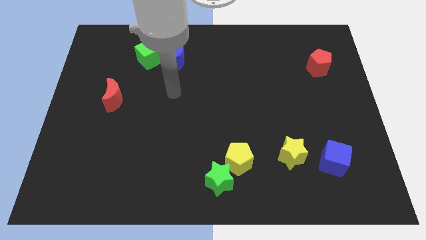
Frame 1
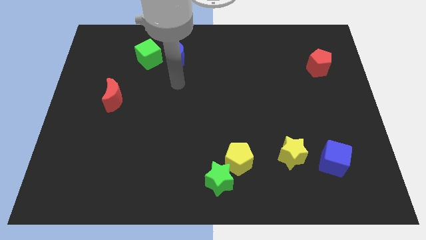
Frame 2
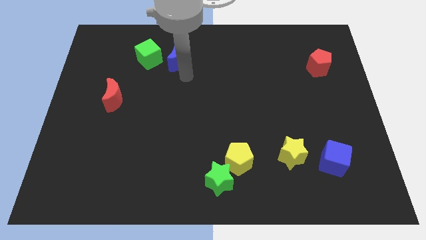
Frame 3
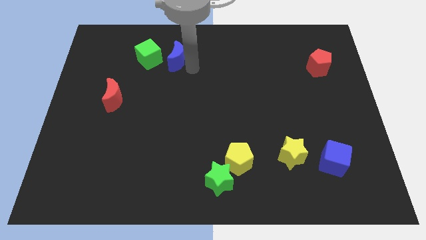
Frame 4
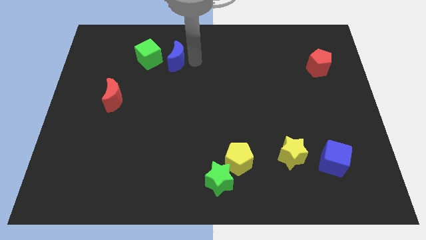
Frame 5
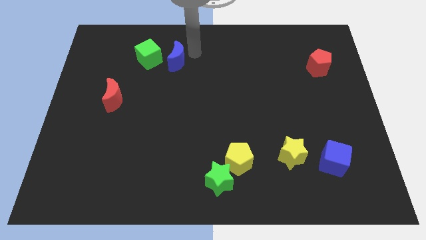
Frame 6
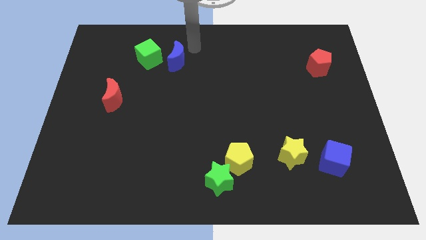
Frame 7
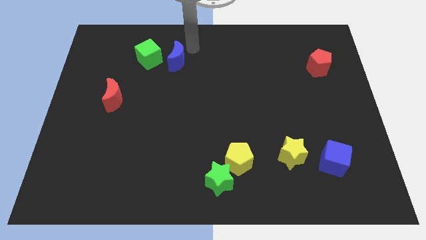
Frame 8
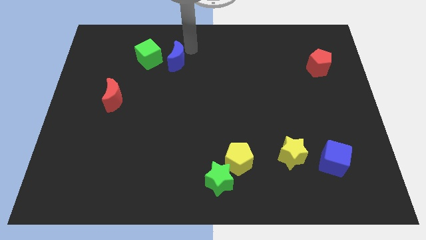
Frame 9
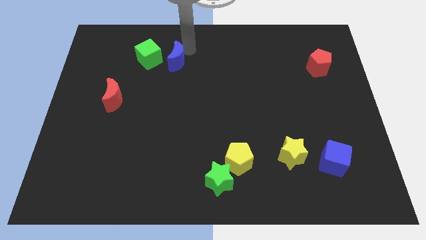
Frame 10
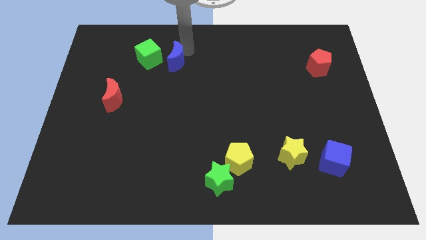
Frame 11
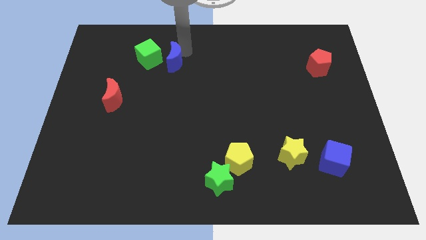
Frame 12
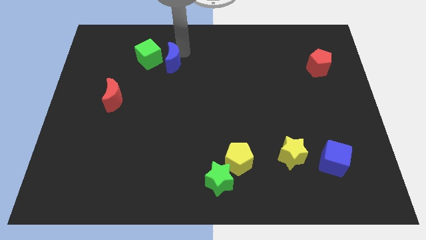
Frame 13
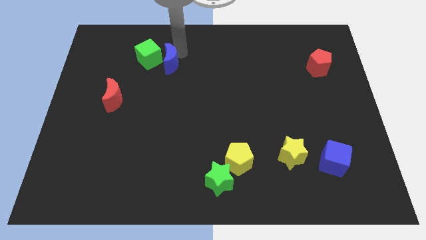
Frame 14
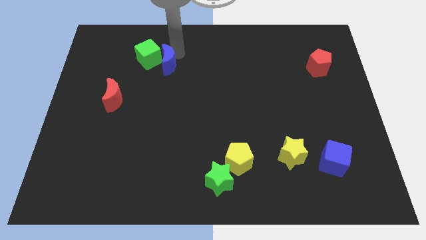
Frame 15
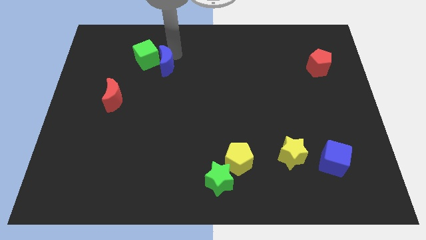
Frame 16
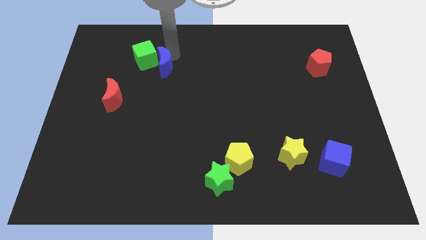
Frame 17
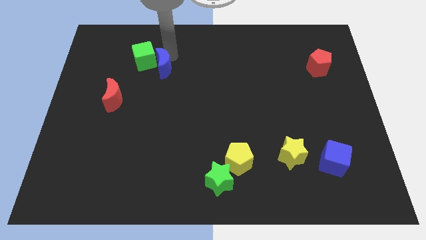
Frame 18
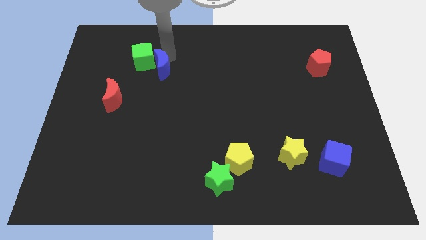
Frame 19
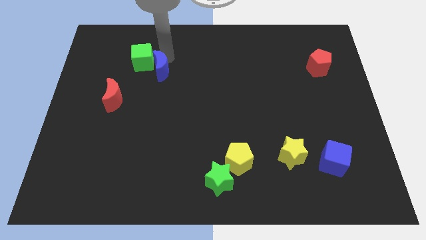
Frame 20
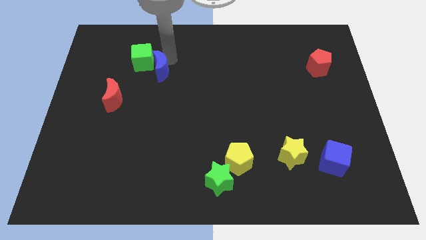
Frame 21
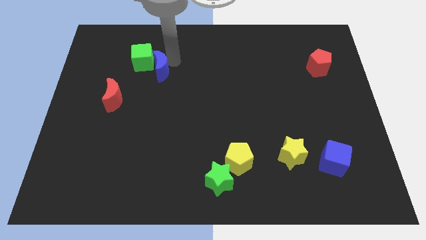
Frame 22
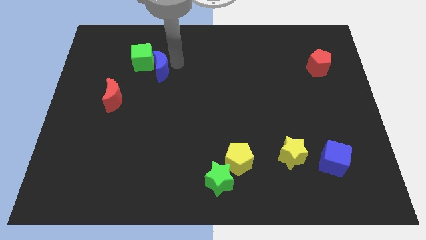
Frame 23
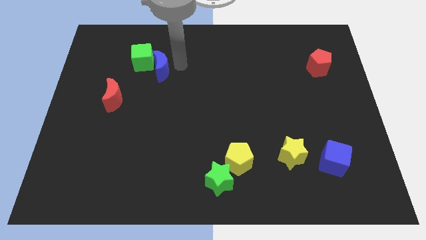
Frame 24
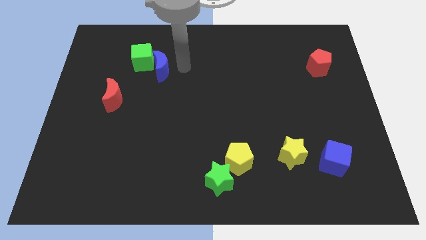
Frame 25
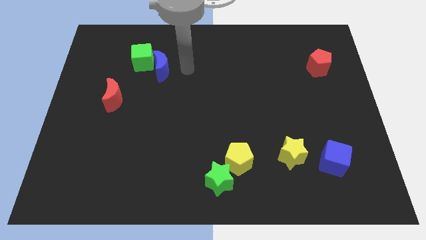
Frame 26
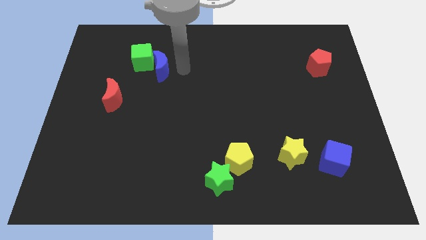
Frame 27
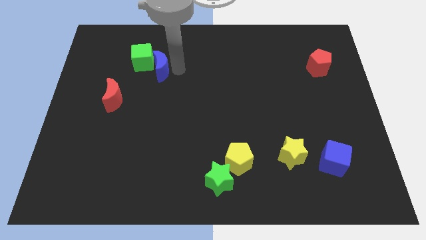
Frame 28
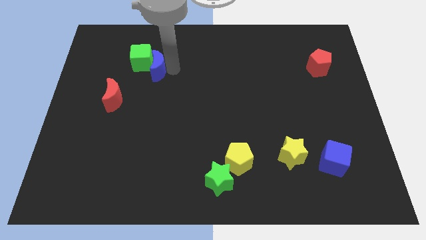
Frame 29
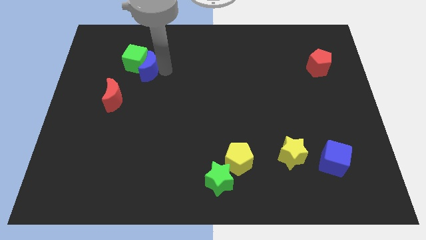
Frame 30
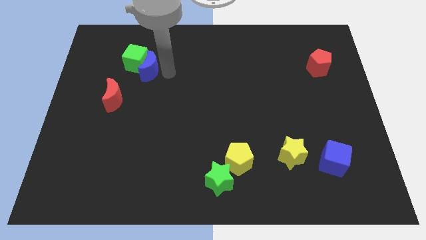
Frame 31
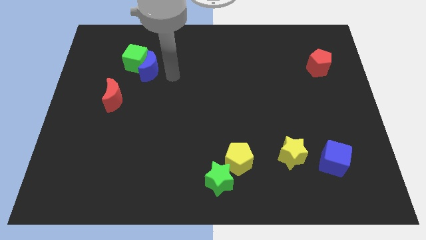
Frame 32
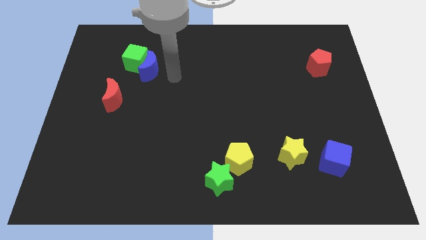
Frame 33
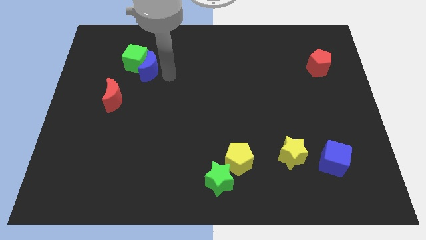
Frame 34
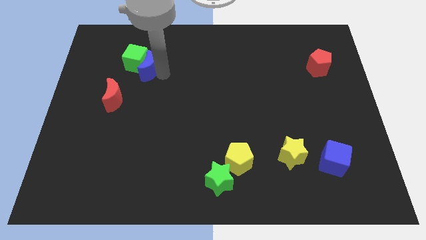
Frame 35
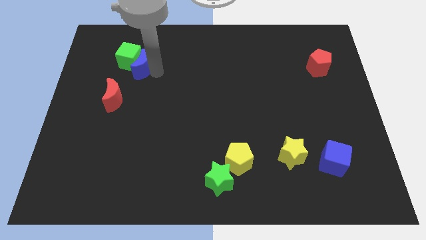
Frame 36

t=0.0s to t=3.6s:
push the blue moon left a little bit

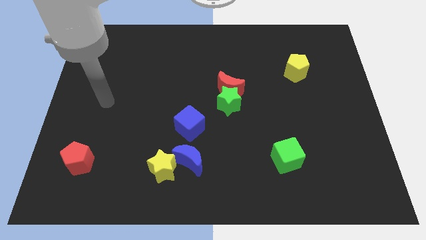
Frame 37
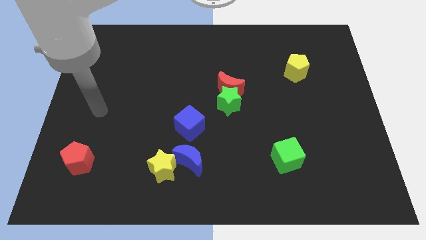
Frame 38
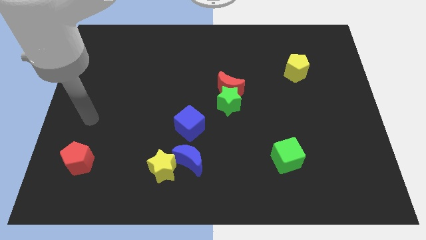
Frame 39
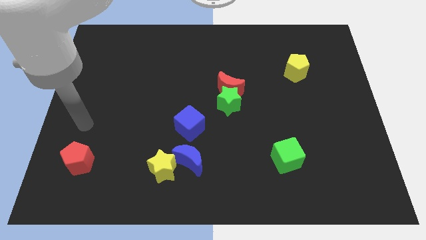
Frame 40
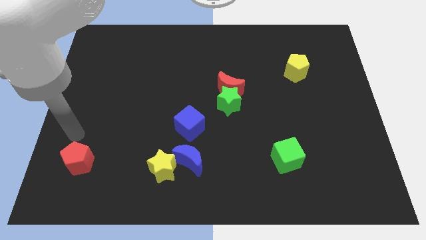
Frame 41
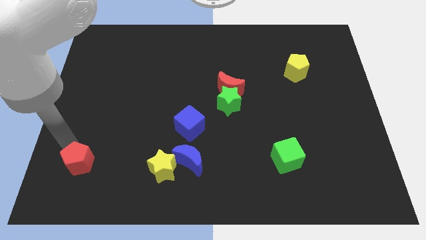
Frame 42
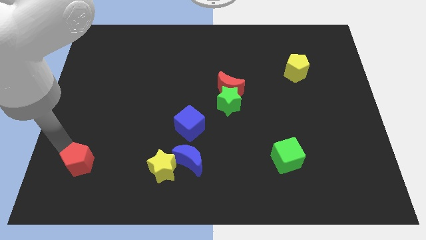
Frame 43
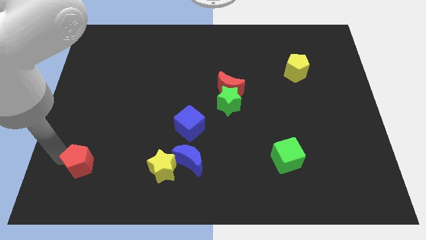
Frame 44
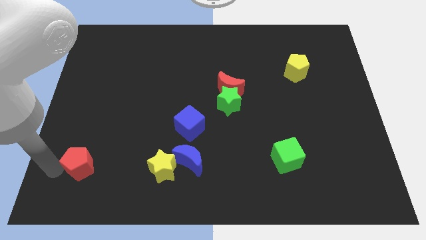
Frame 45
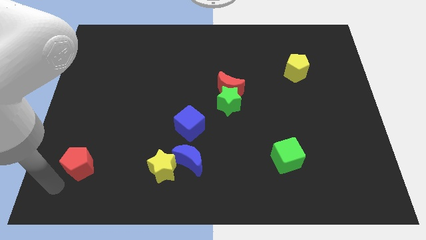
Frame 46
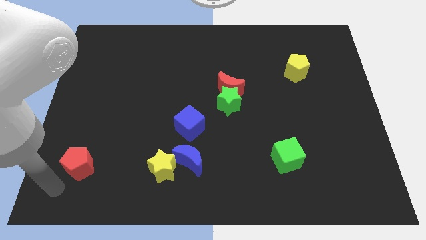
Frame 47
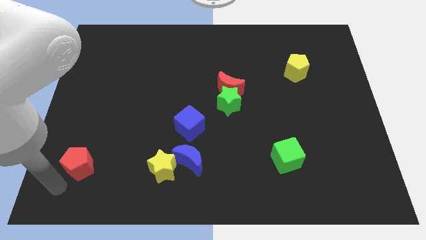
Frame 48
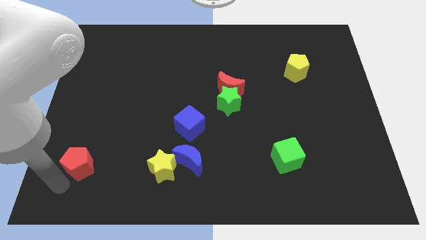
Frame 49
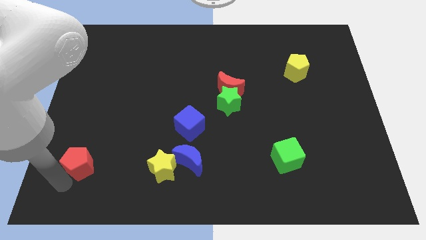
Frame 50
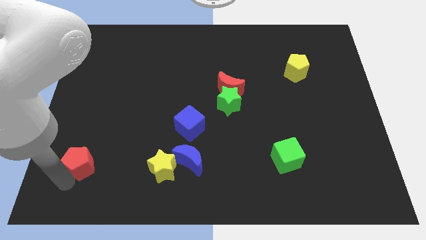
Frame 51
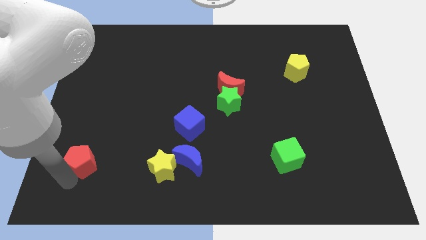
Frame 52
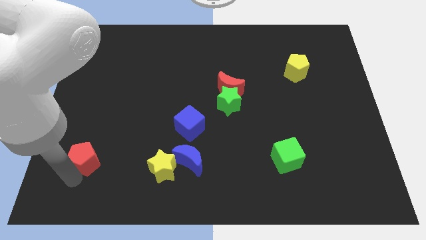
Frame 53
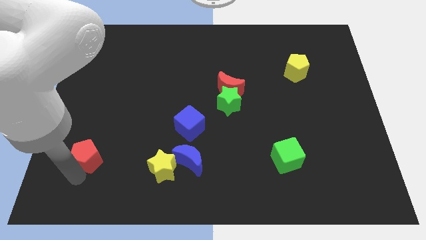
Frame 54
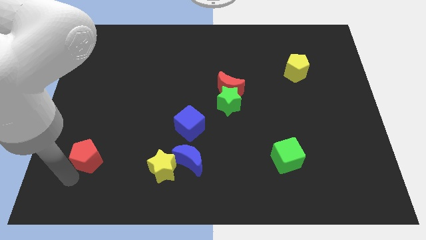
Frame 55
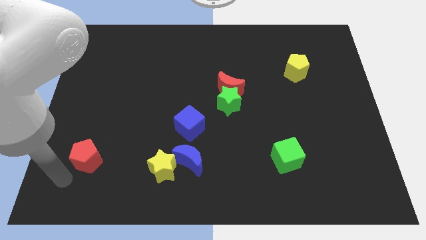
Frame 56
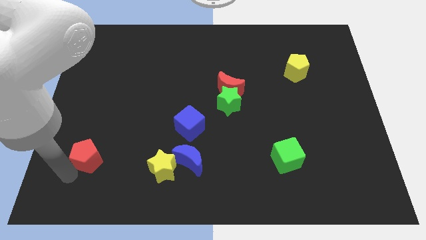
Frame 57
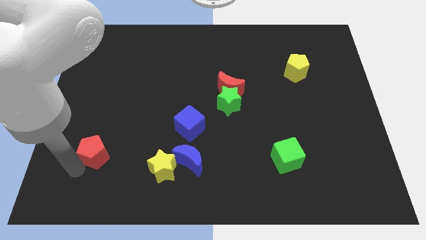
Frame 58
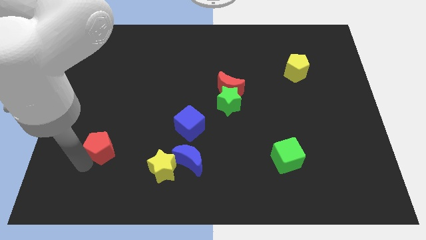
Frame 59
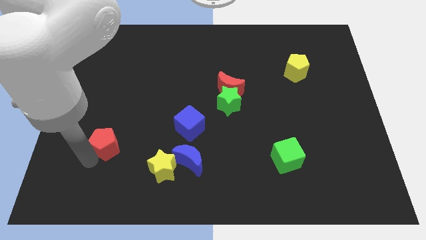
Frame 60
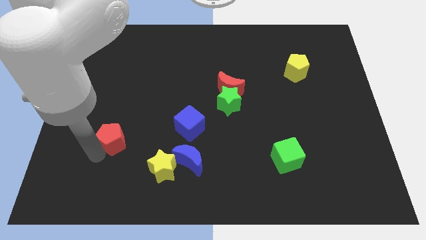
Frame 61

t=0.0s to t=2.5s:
slightly move the red pentagon upwards and right

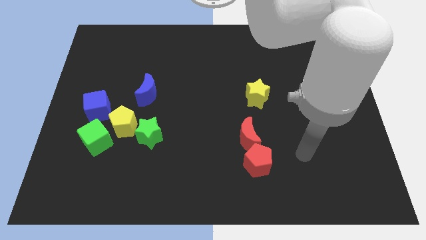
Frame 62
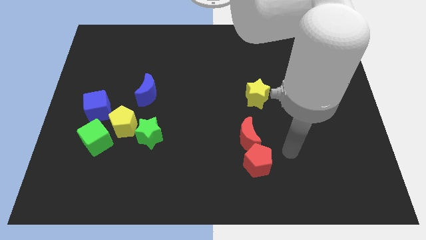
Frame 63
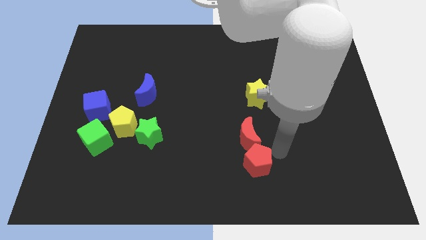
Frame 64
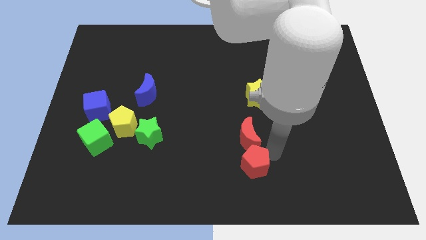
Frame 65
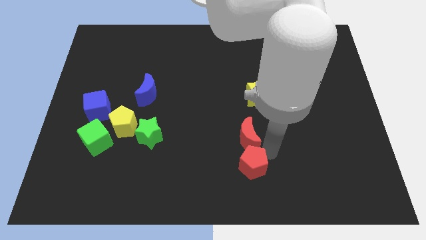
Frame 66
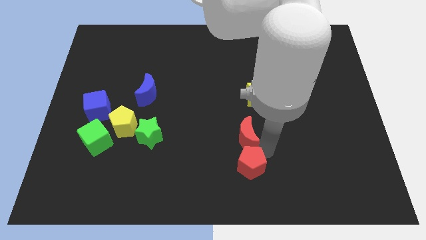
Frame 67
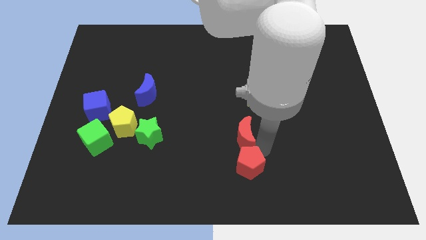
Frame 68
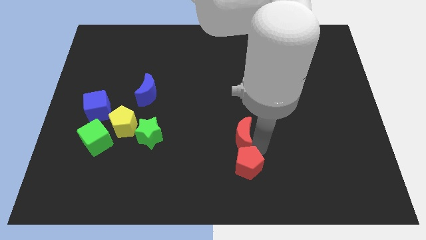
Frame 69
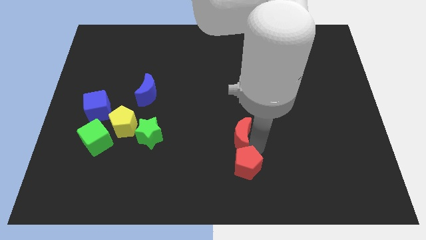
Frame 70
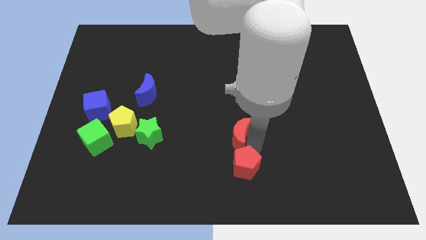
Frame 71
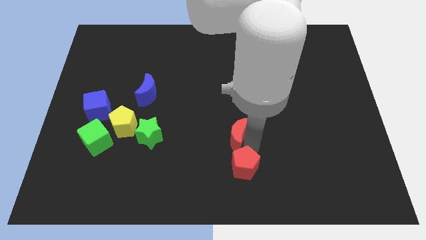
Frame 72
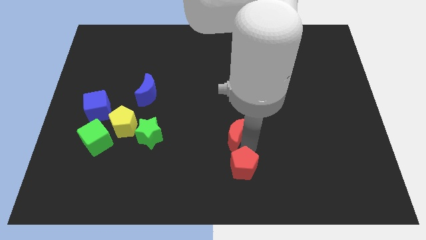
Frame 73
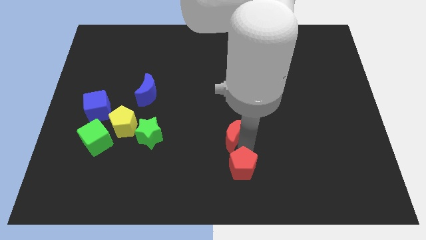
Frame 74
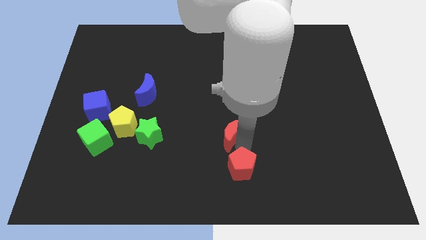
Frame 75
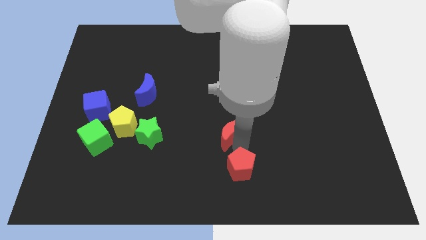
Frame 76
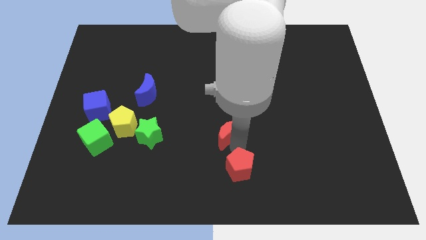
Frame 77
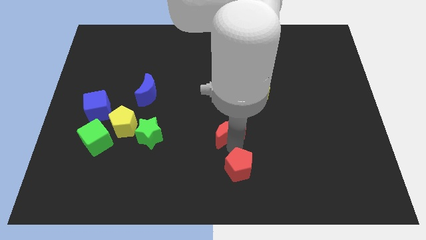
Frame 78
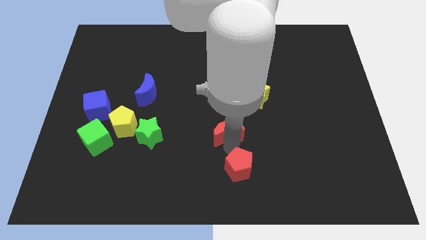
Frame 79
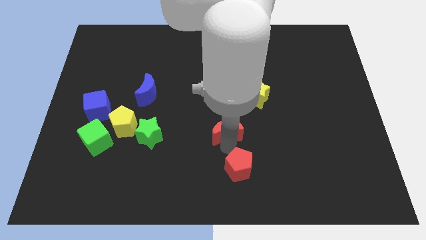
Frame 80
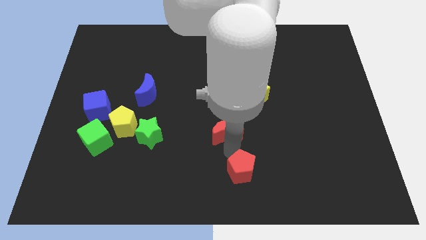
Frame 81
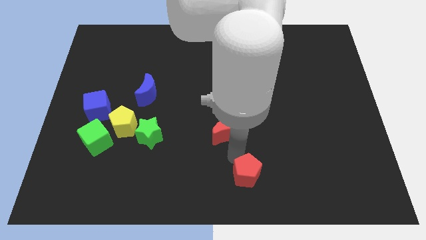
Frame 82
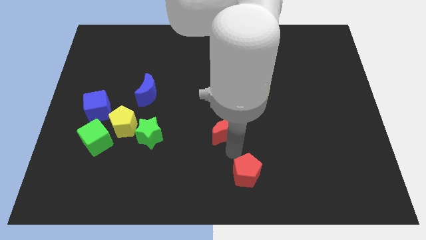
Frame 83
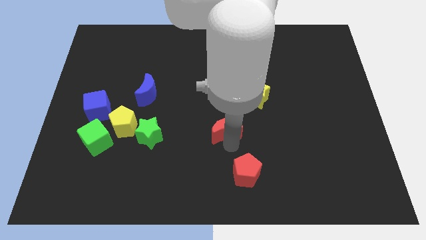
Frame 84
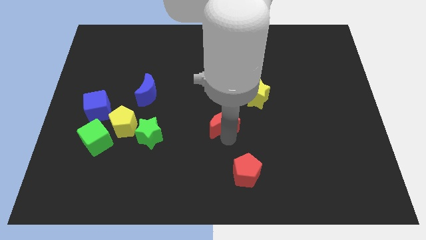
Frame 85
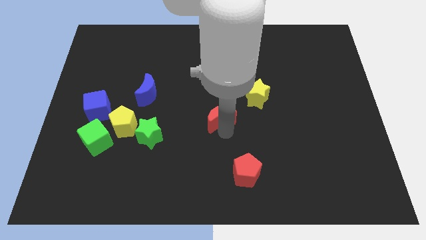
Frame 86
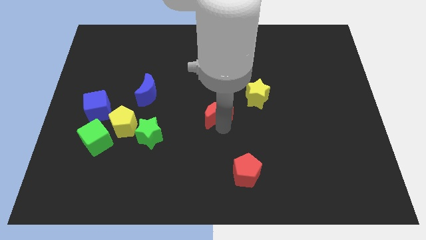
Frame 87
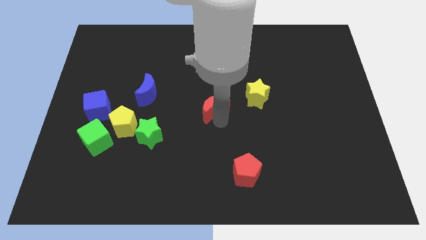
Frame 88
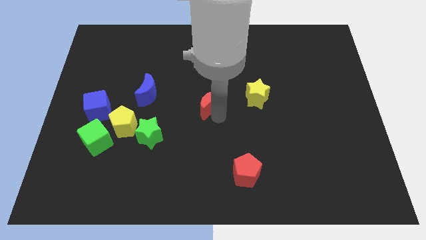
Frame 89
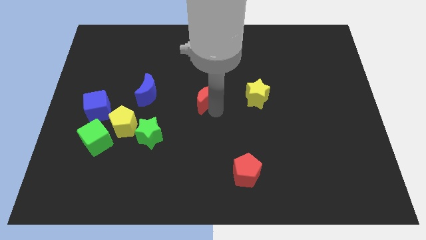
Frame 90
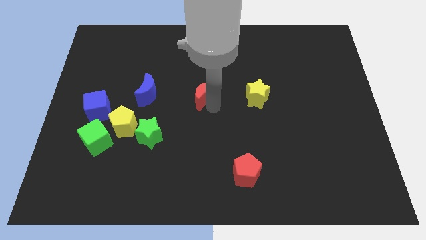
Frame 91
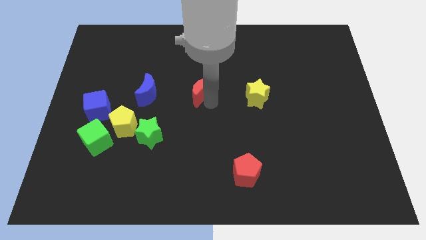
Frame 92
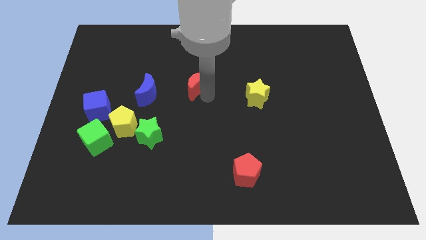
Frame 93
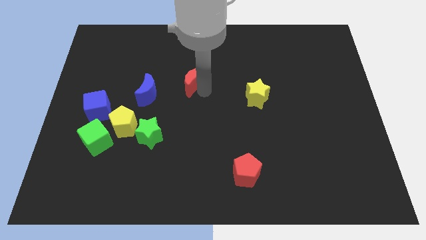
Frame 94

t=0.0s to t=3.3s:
push the red moon upwards and then left
